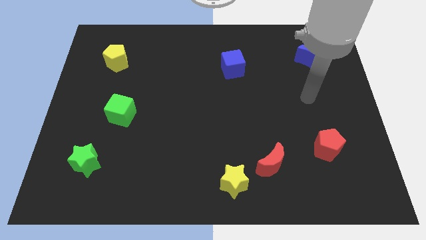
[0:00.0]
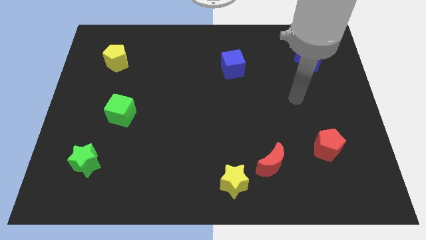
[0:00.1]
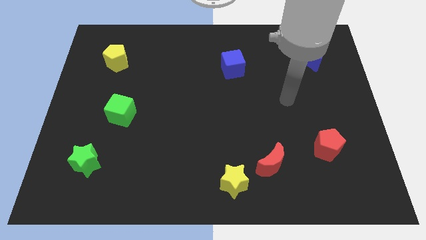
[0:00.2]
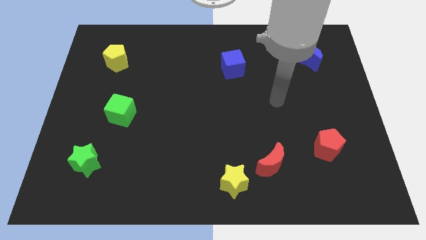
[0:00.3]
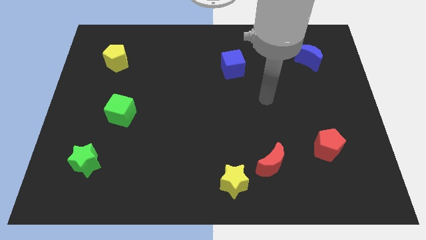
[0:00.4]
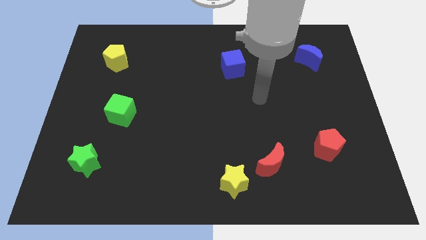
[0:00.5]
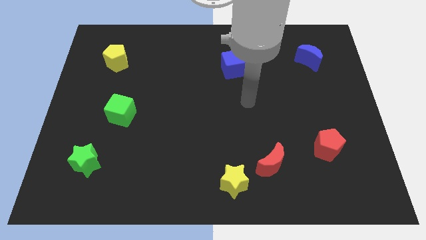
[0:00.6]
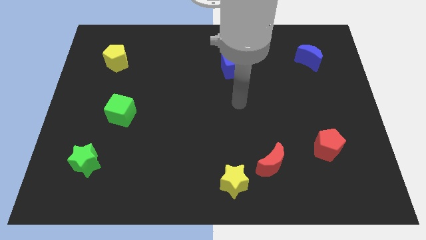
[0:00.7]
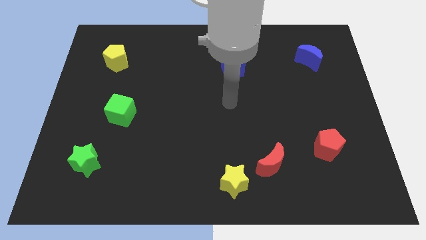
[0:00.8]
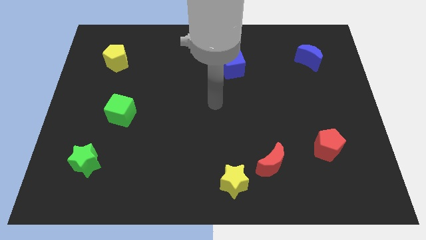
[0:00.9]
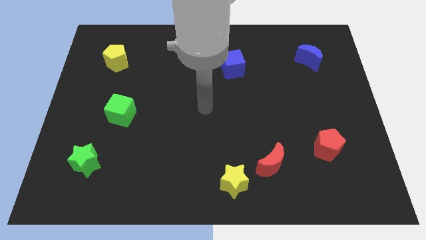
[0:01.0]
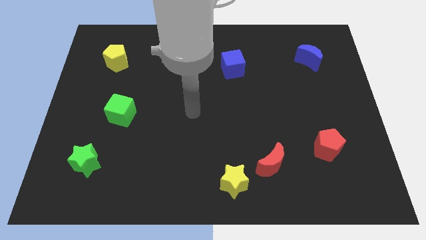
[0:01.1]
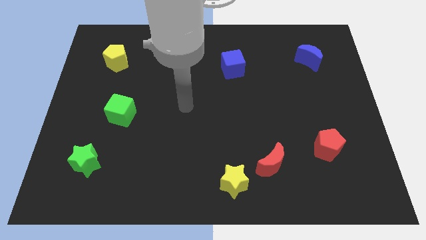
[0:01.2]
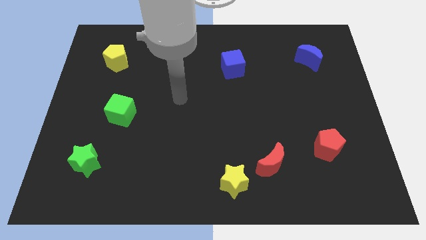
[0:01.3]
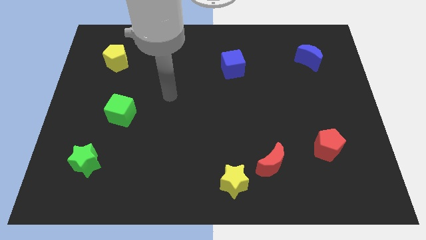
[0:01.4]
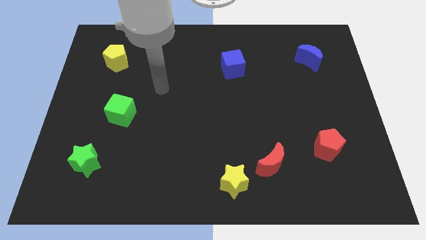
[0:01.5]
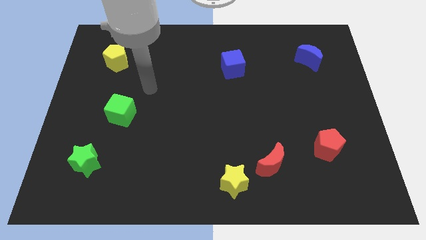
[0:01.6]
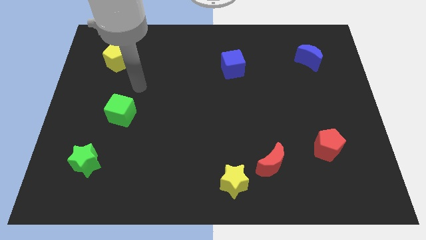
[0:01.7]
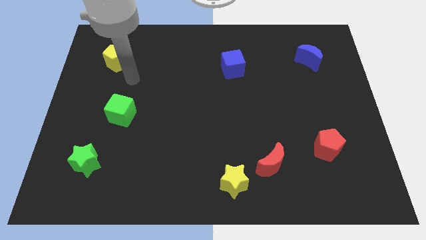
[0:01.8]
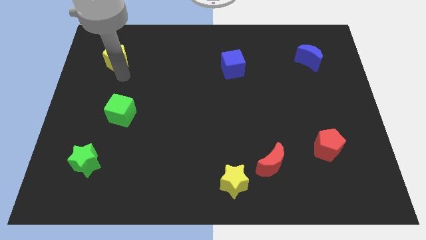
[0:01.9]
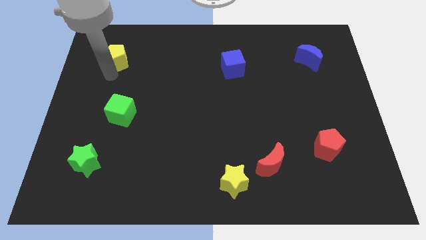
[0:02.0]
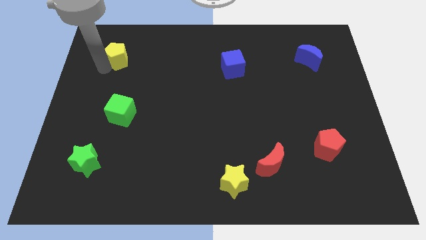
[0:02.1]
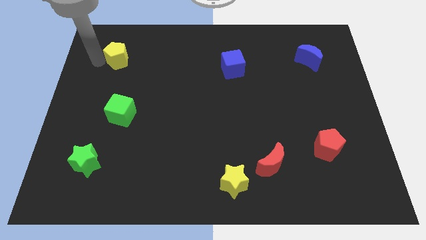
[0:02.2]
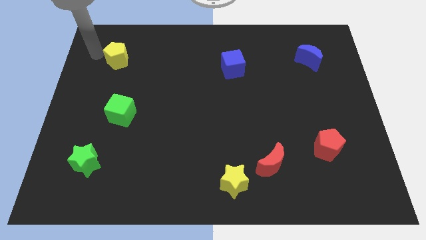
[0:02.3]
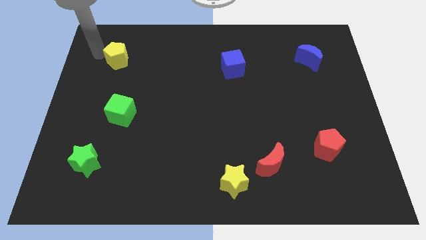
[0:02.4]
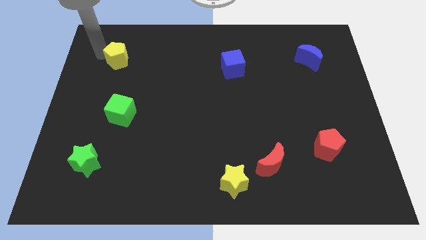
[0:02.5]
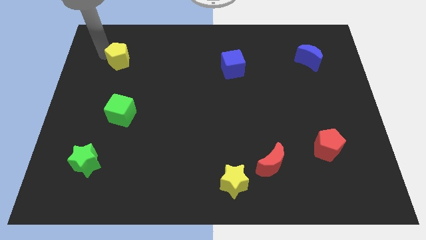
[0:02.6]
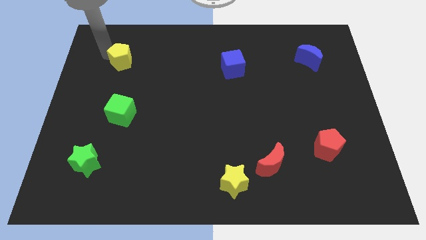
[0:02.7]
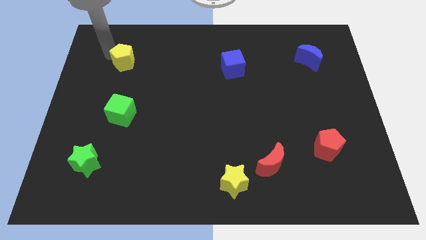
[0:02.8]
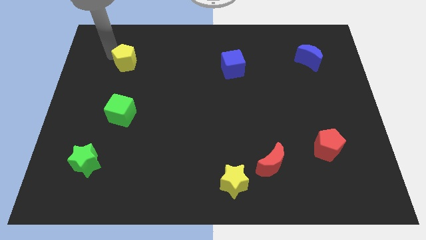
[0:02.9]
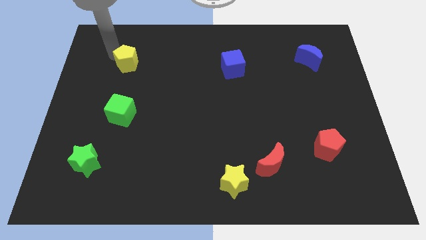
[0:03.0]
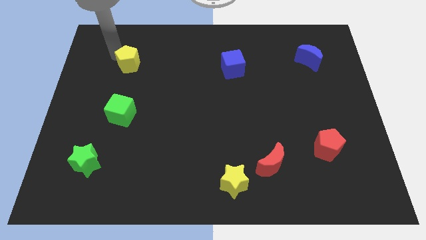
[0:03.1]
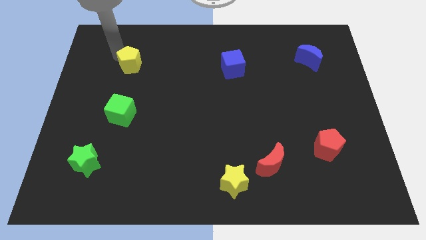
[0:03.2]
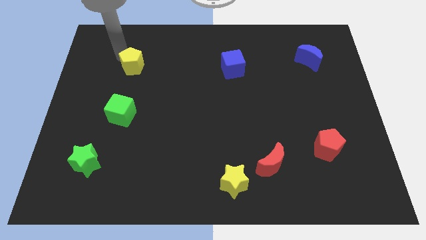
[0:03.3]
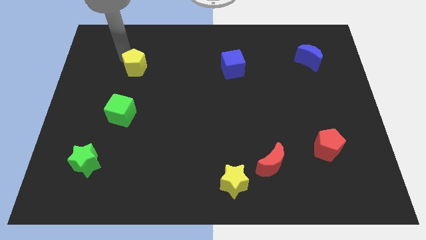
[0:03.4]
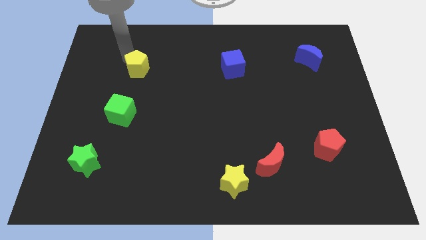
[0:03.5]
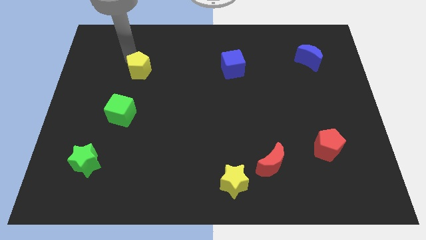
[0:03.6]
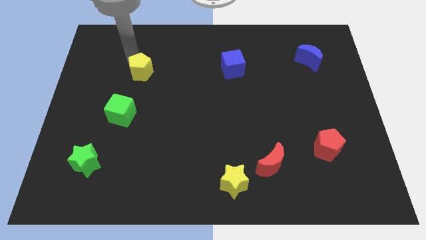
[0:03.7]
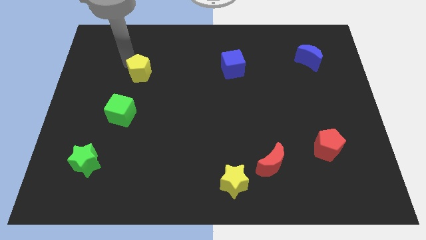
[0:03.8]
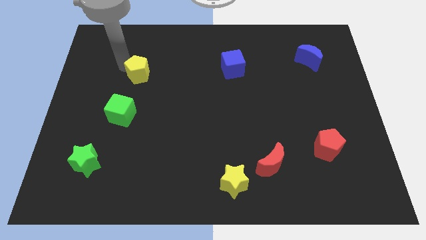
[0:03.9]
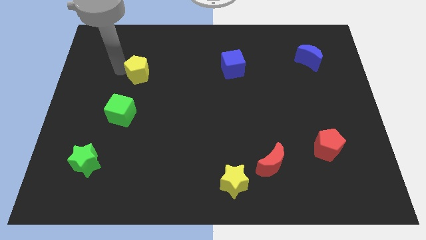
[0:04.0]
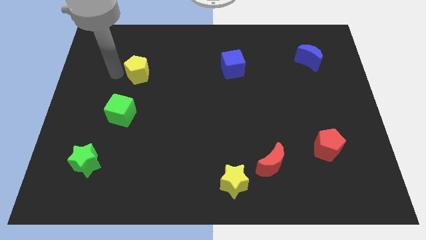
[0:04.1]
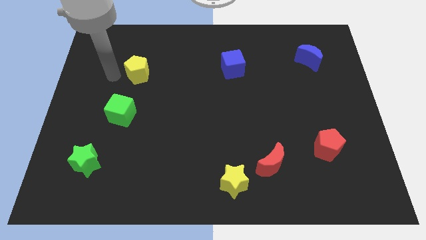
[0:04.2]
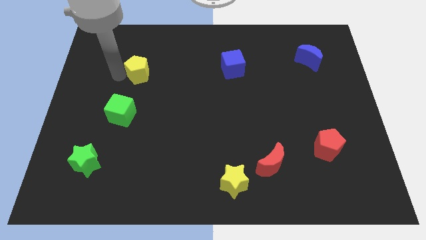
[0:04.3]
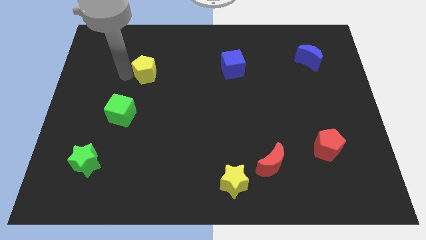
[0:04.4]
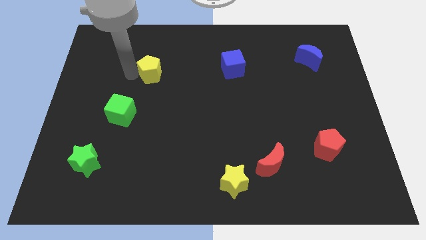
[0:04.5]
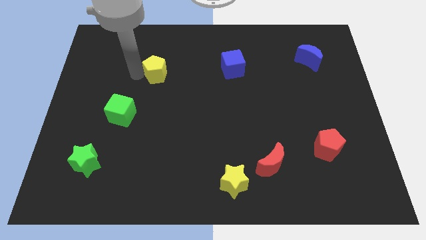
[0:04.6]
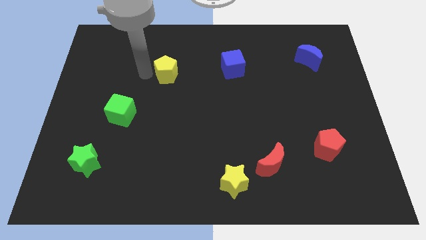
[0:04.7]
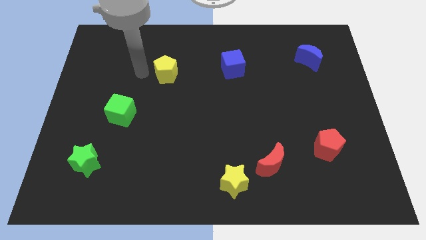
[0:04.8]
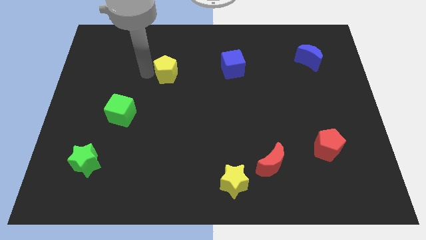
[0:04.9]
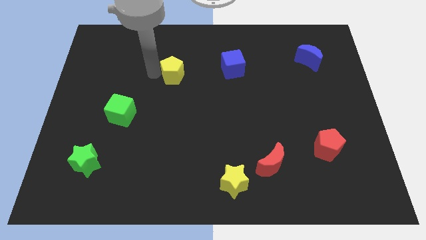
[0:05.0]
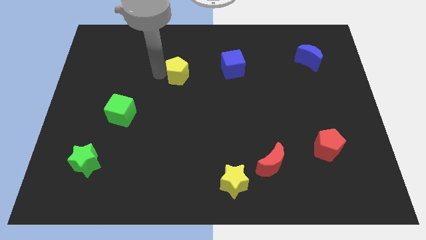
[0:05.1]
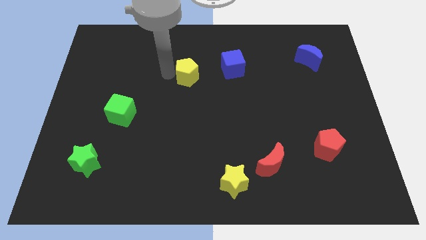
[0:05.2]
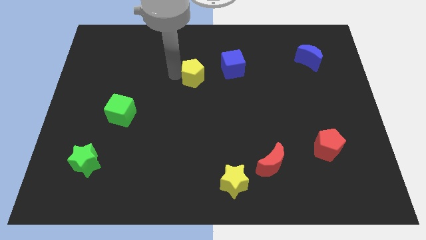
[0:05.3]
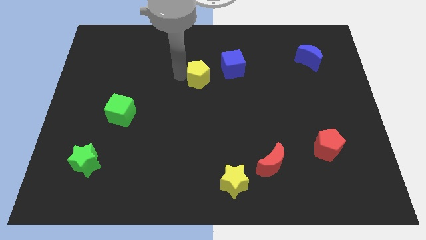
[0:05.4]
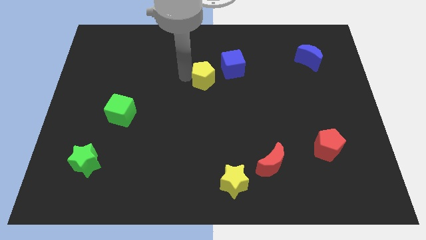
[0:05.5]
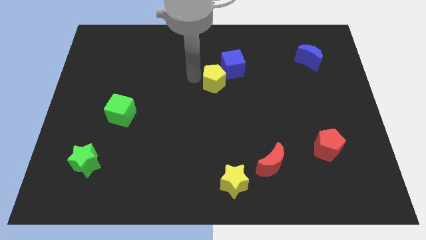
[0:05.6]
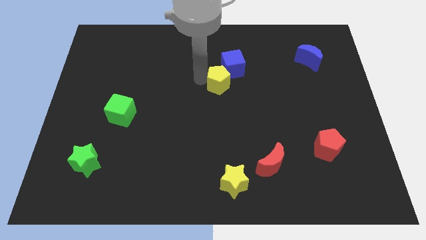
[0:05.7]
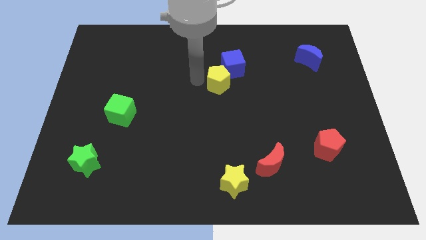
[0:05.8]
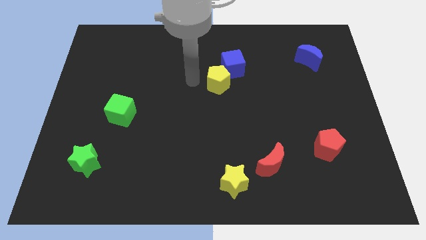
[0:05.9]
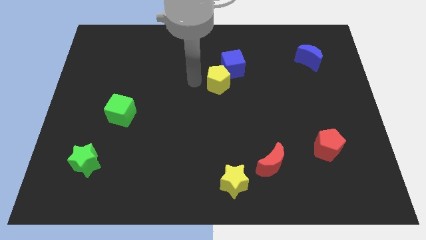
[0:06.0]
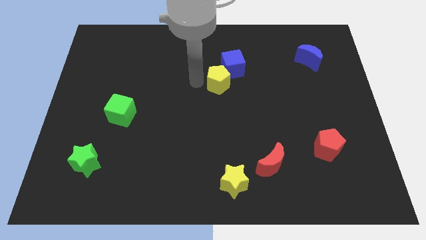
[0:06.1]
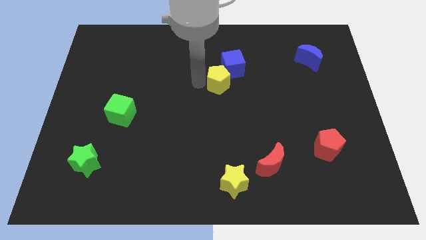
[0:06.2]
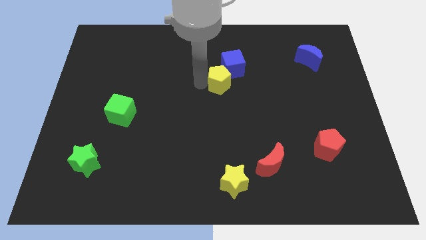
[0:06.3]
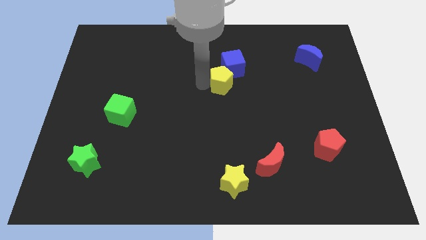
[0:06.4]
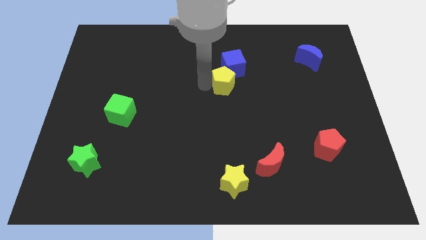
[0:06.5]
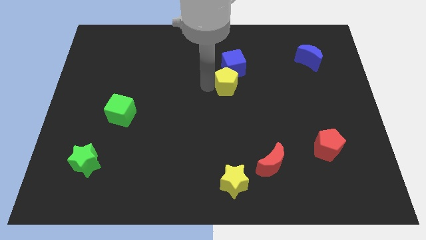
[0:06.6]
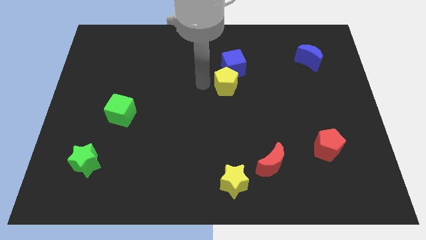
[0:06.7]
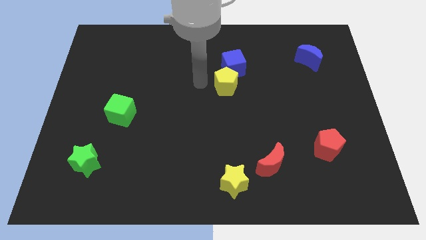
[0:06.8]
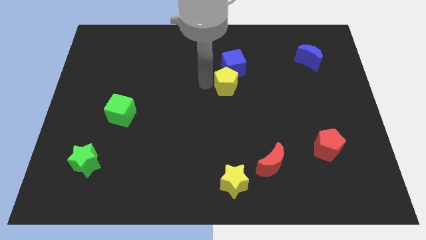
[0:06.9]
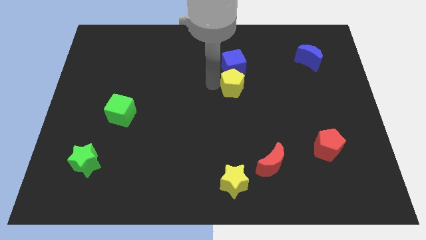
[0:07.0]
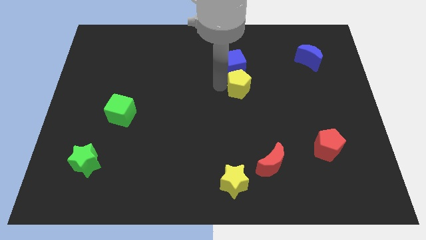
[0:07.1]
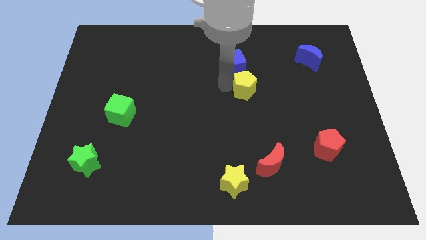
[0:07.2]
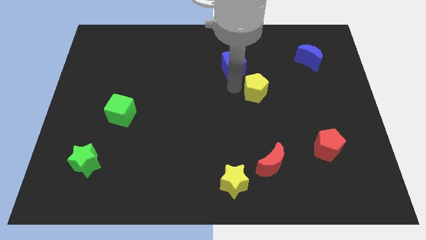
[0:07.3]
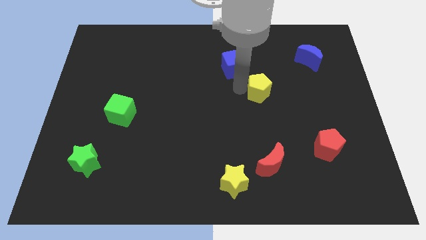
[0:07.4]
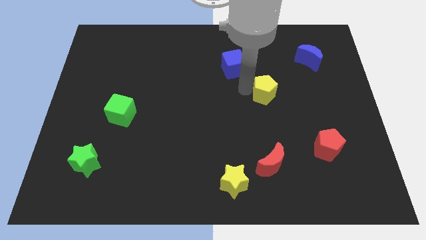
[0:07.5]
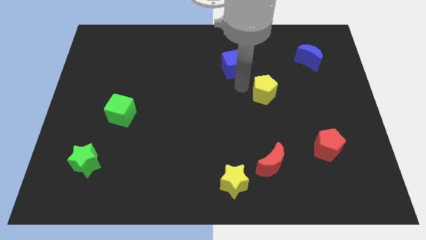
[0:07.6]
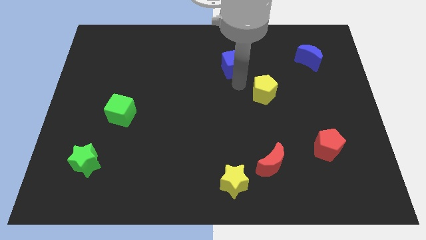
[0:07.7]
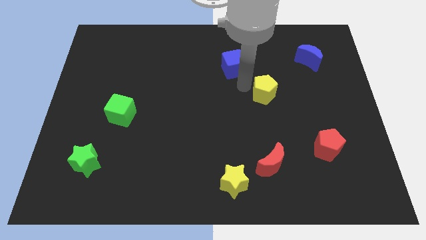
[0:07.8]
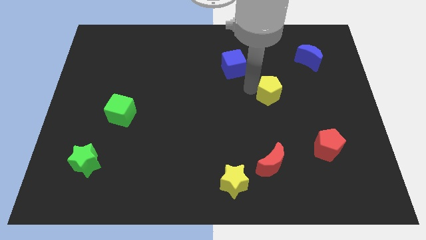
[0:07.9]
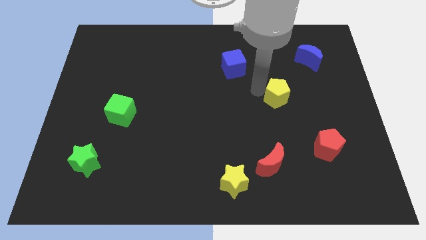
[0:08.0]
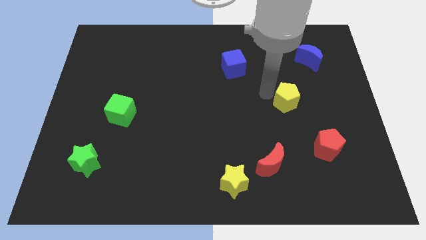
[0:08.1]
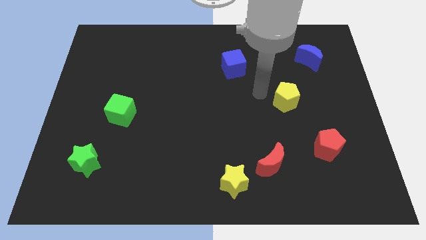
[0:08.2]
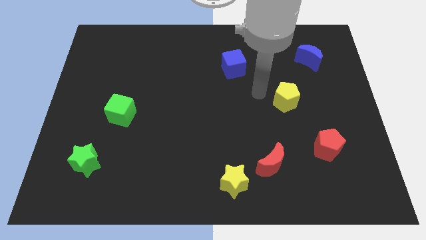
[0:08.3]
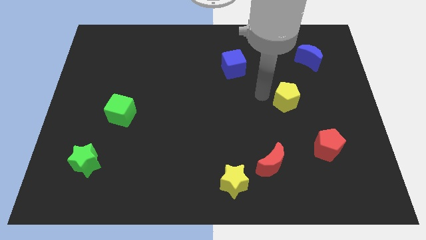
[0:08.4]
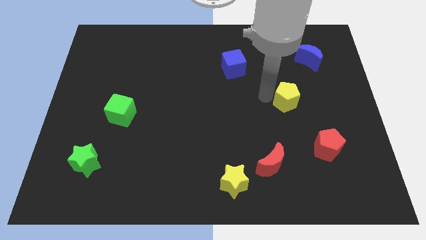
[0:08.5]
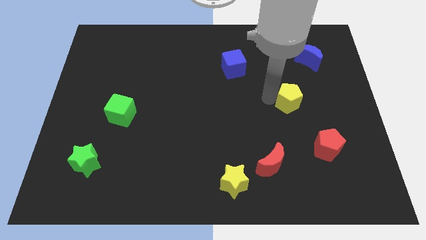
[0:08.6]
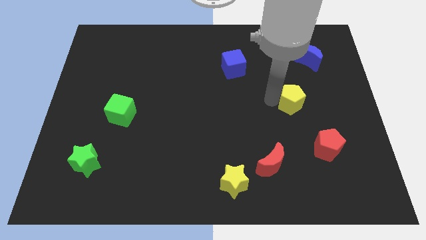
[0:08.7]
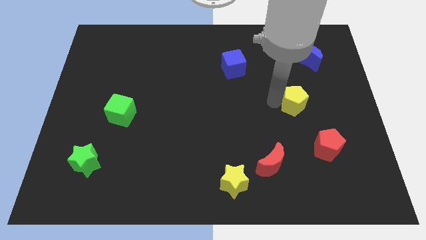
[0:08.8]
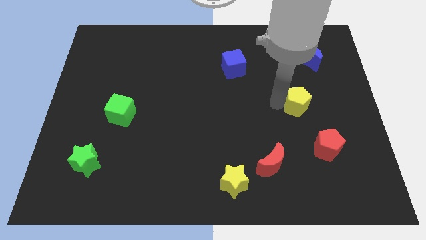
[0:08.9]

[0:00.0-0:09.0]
slide the yellow pentagon to the top of the red pentagon
